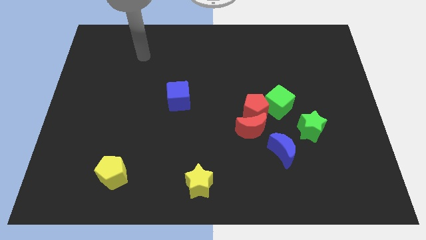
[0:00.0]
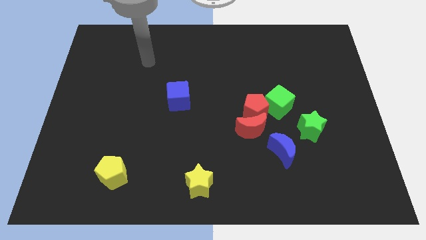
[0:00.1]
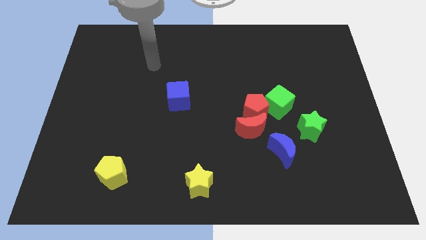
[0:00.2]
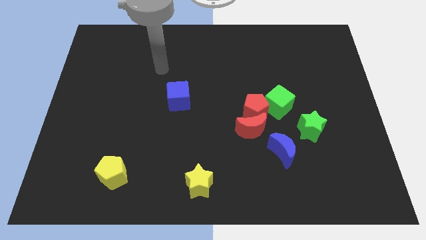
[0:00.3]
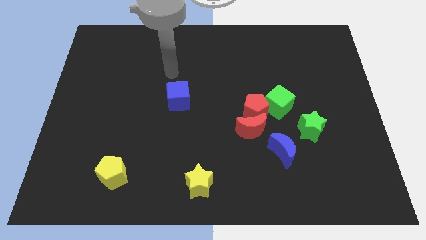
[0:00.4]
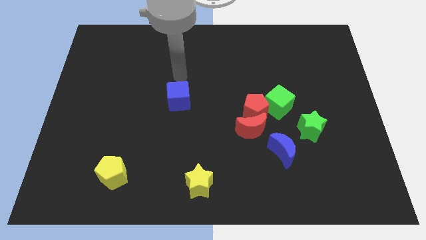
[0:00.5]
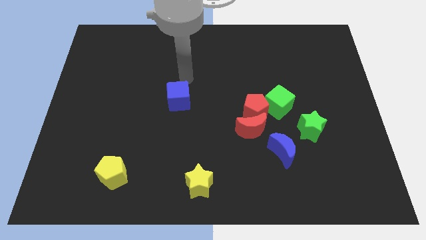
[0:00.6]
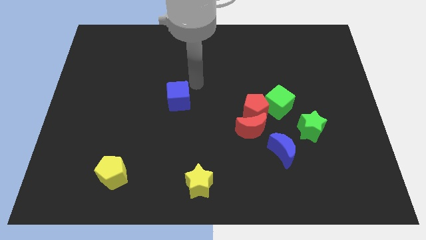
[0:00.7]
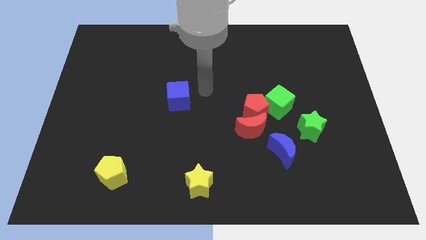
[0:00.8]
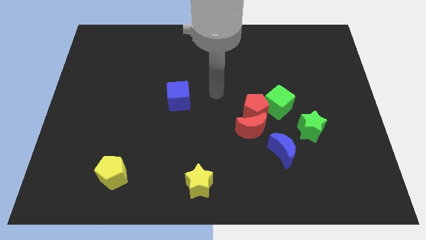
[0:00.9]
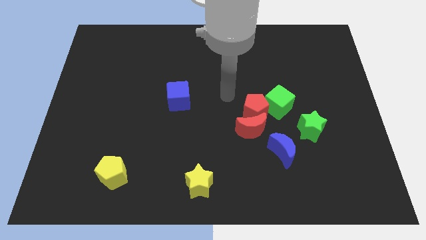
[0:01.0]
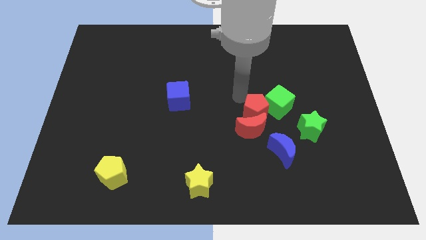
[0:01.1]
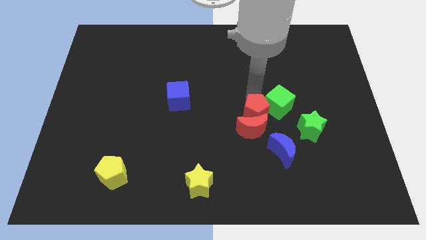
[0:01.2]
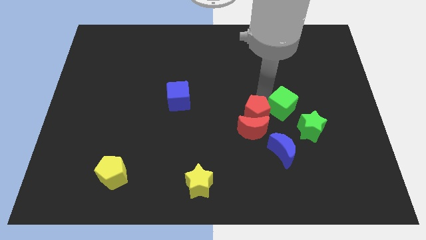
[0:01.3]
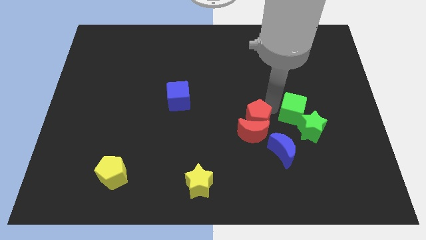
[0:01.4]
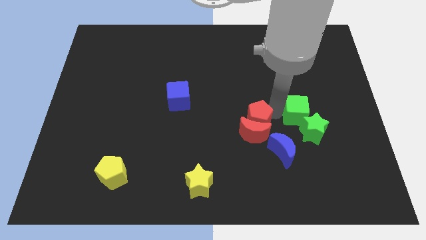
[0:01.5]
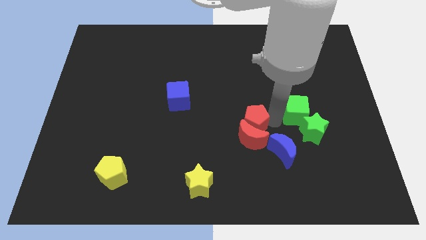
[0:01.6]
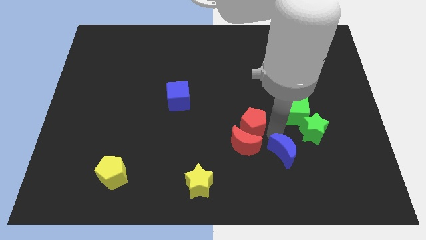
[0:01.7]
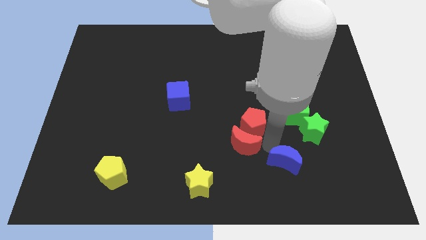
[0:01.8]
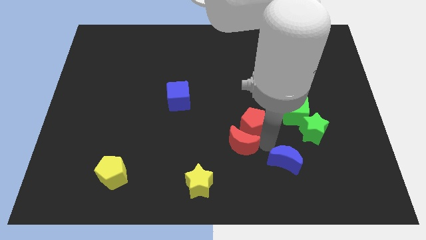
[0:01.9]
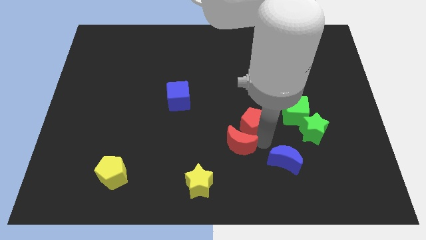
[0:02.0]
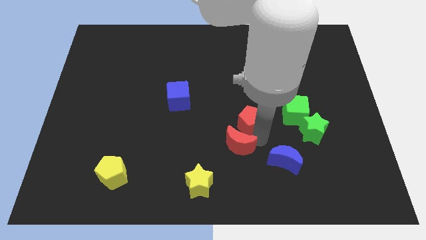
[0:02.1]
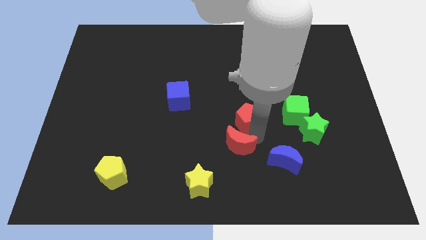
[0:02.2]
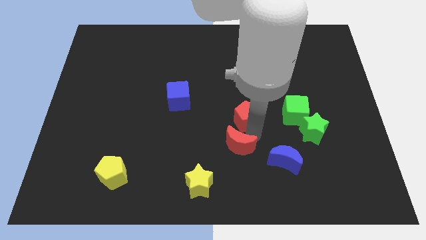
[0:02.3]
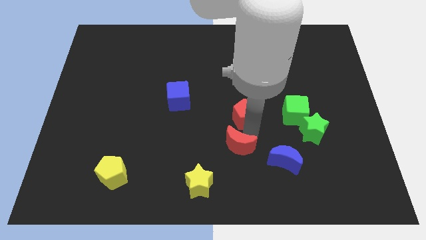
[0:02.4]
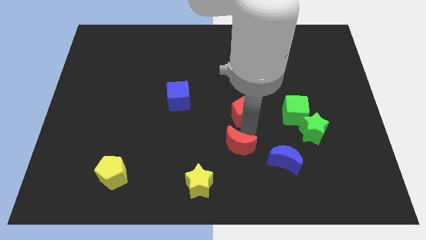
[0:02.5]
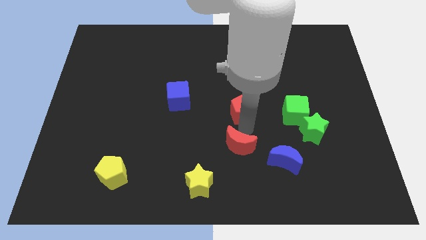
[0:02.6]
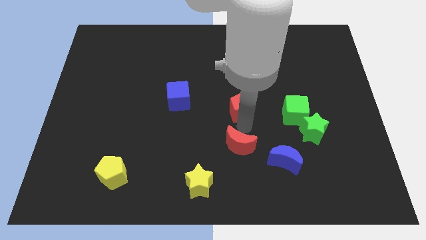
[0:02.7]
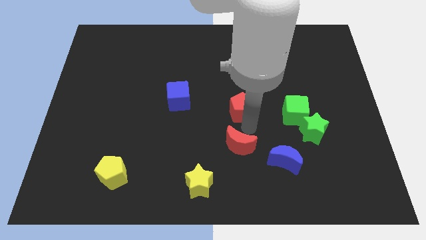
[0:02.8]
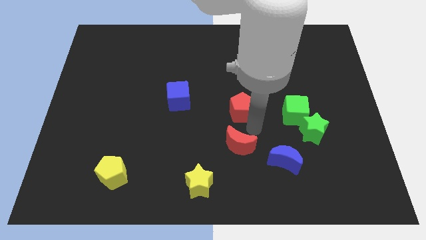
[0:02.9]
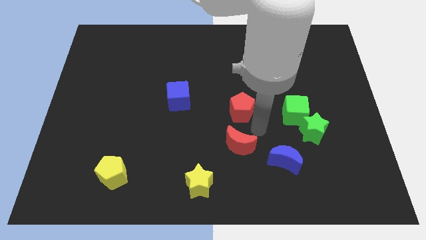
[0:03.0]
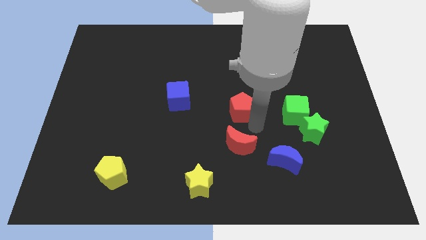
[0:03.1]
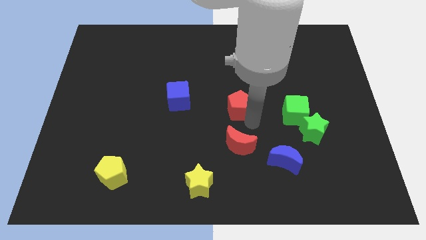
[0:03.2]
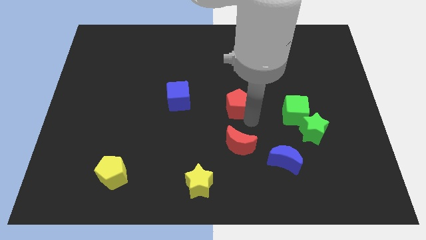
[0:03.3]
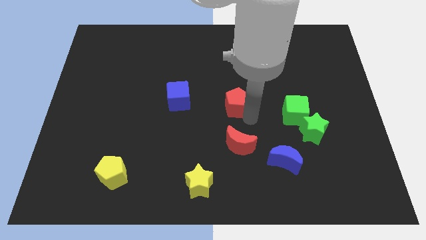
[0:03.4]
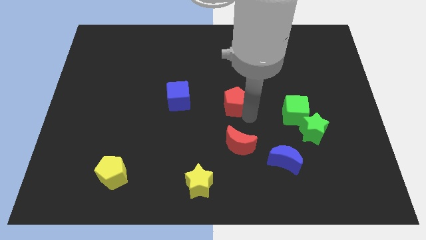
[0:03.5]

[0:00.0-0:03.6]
pull the red pentagon apart from the red moon and green cube

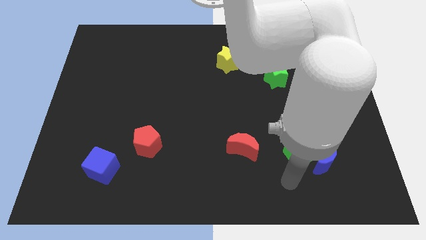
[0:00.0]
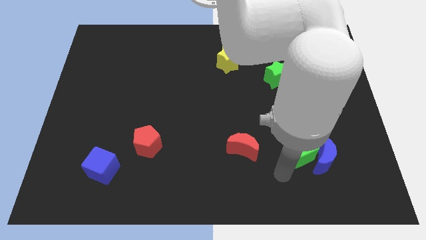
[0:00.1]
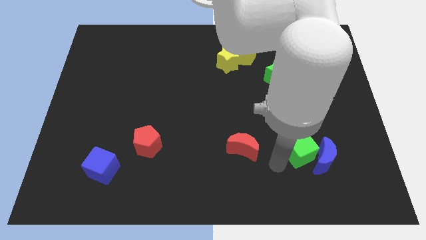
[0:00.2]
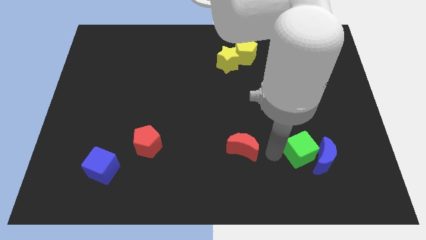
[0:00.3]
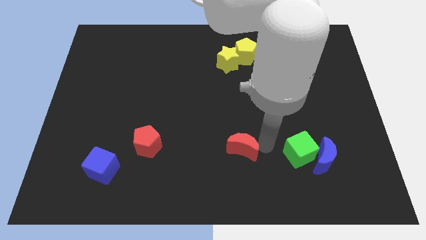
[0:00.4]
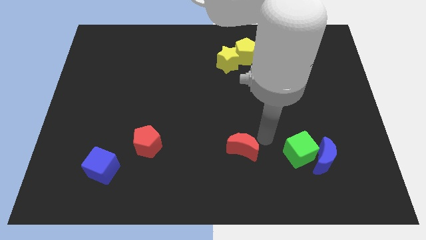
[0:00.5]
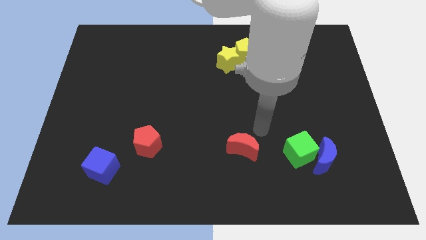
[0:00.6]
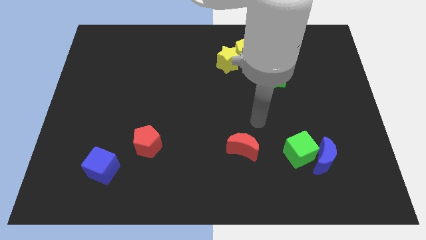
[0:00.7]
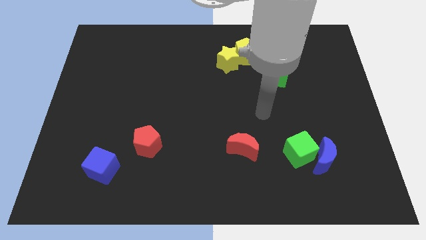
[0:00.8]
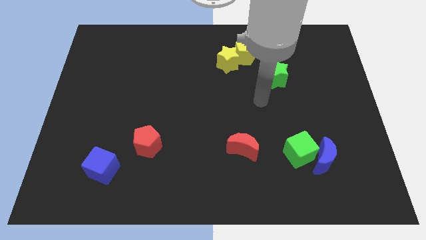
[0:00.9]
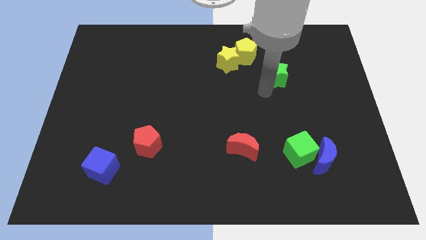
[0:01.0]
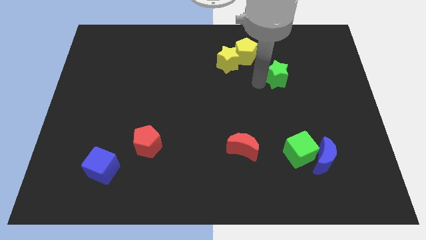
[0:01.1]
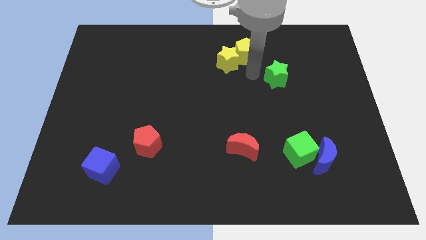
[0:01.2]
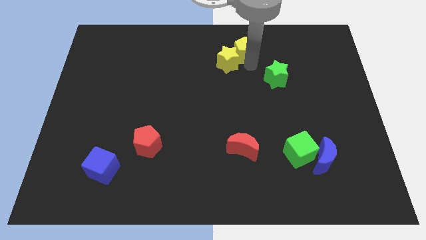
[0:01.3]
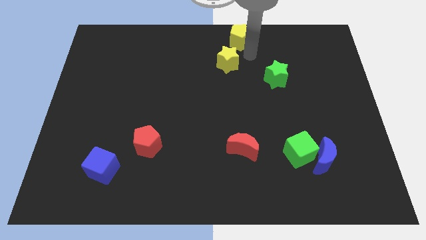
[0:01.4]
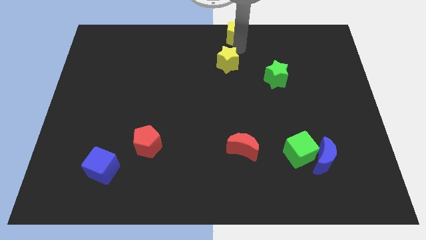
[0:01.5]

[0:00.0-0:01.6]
separate the yellow star from the yellow pentagon

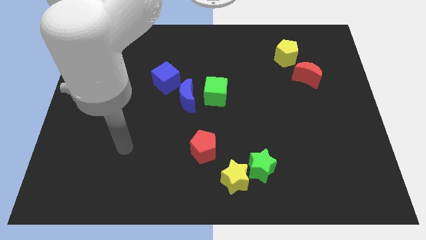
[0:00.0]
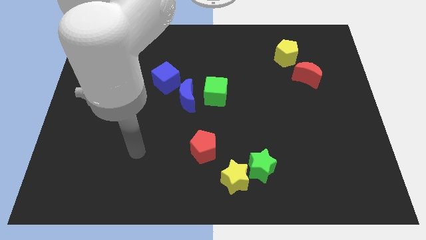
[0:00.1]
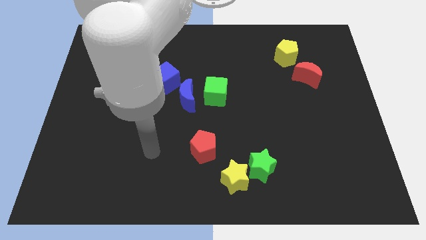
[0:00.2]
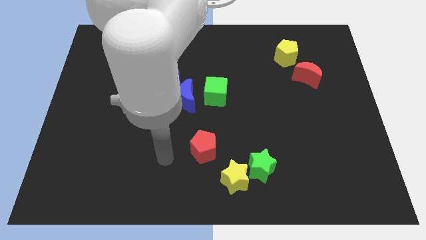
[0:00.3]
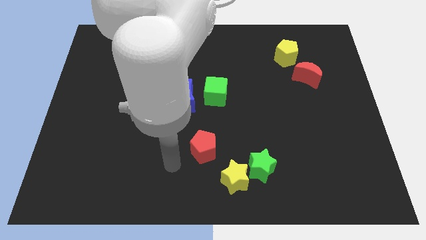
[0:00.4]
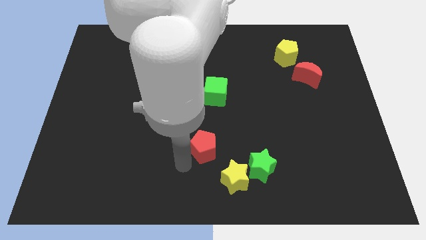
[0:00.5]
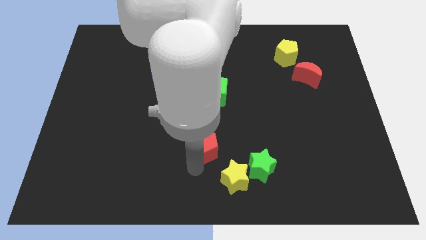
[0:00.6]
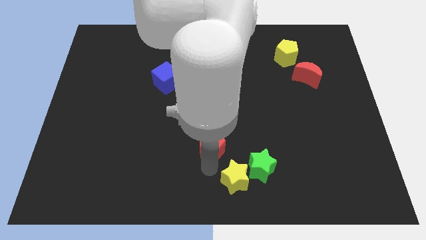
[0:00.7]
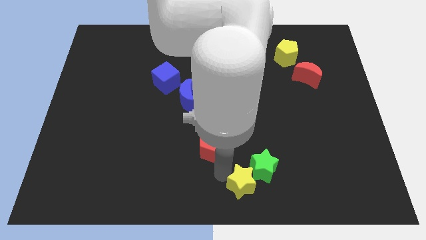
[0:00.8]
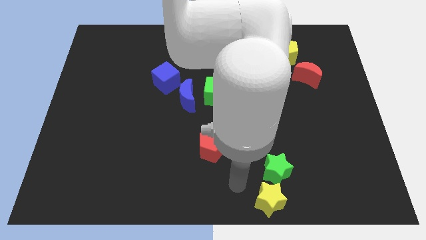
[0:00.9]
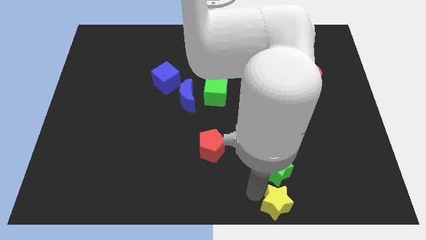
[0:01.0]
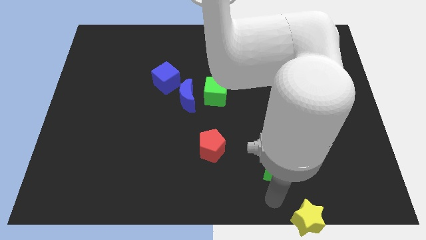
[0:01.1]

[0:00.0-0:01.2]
pull the green star apart from the yellow star

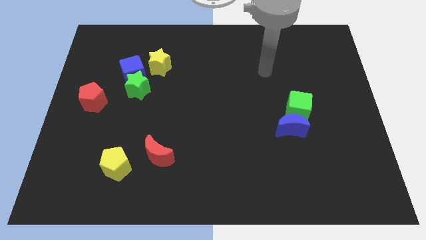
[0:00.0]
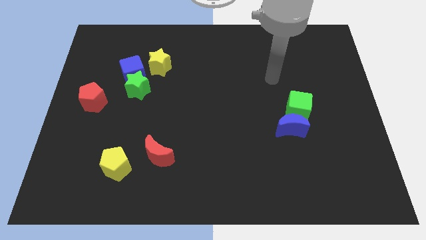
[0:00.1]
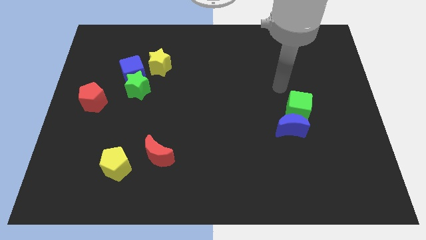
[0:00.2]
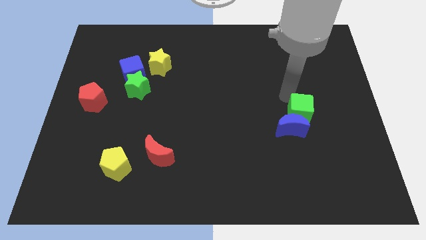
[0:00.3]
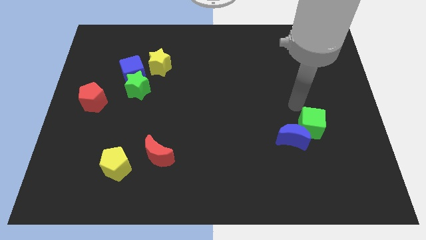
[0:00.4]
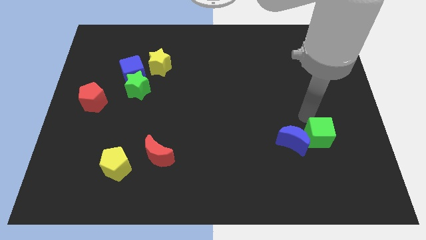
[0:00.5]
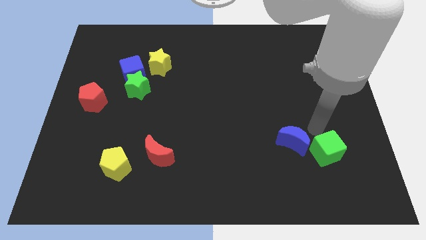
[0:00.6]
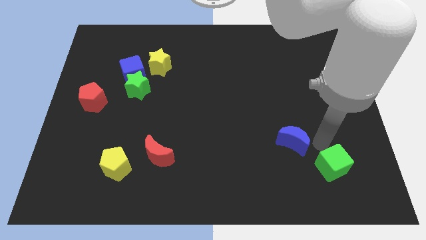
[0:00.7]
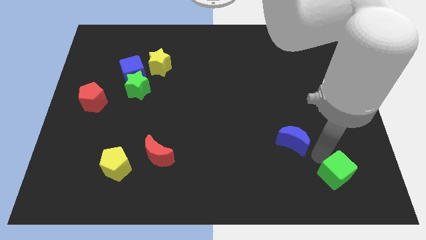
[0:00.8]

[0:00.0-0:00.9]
move the blue moon away from the green cube

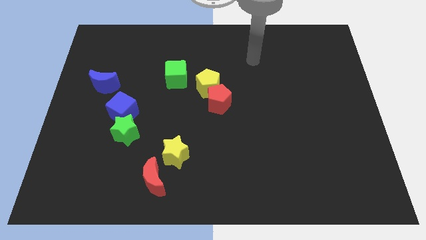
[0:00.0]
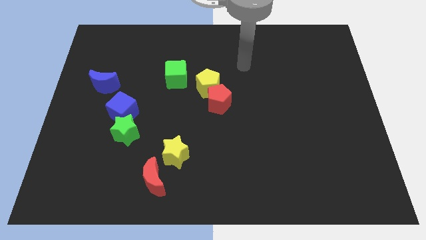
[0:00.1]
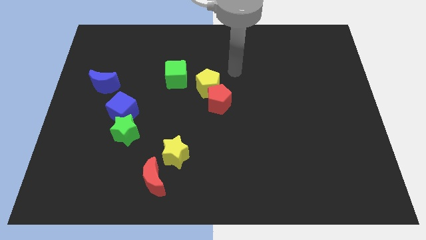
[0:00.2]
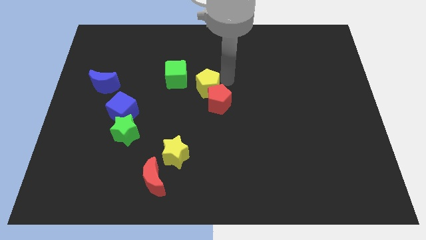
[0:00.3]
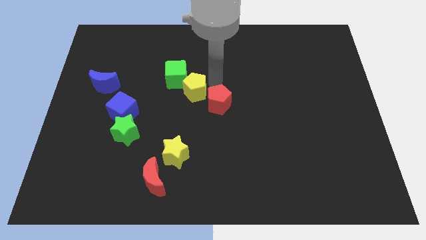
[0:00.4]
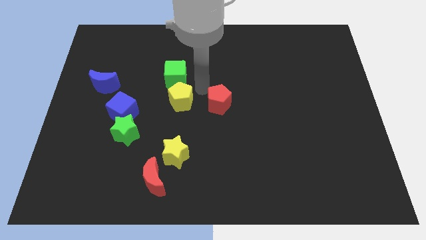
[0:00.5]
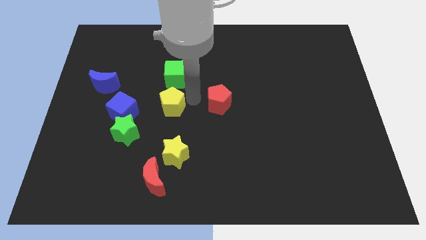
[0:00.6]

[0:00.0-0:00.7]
move the red pentagon away from the yellow pentagon

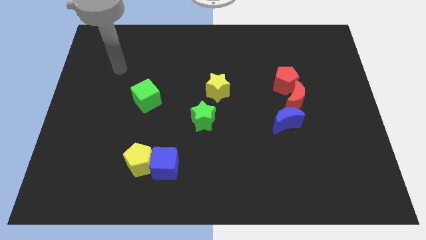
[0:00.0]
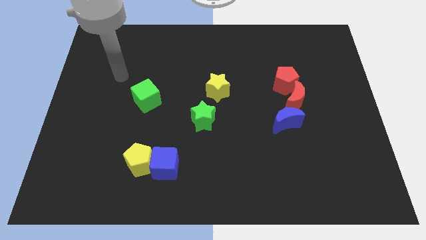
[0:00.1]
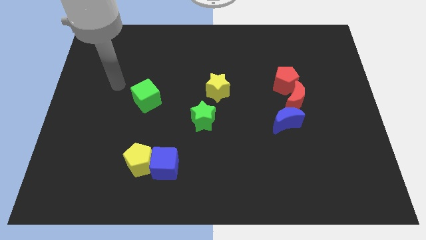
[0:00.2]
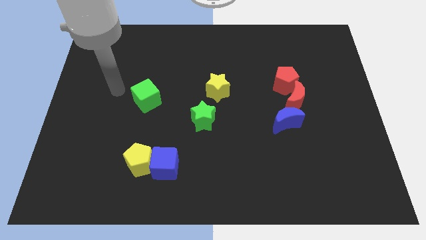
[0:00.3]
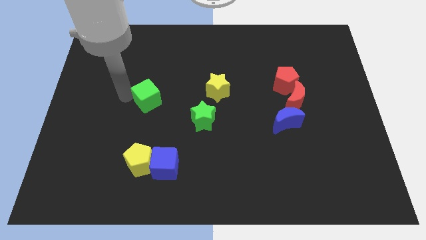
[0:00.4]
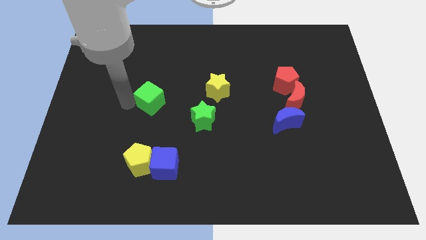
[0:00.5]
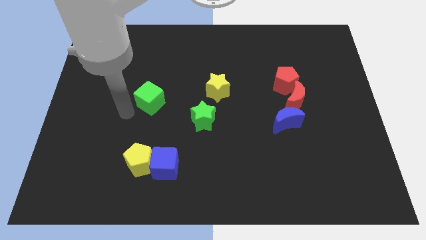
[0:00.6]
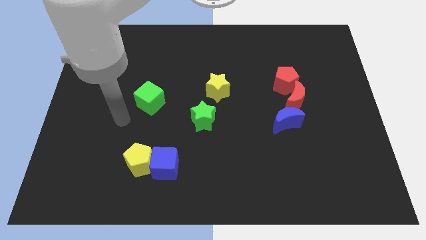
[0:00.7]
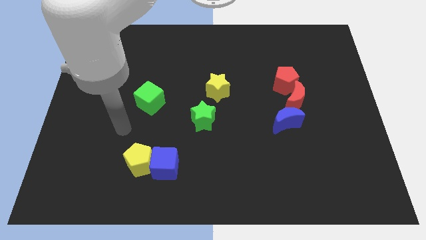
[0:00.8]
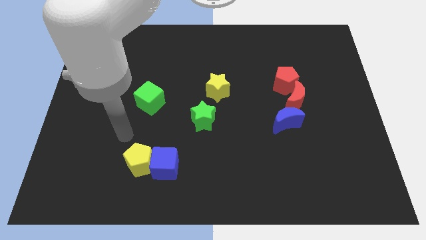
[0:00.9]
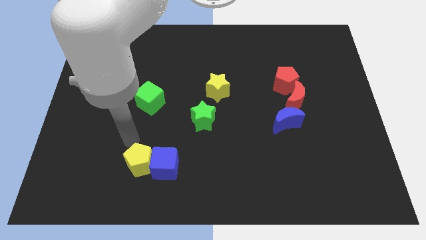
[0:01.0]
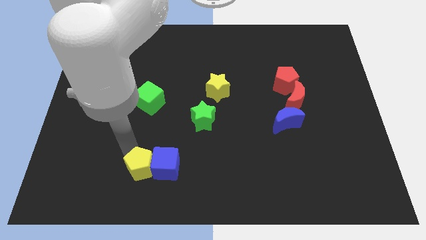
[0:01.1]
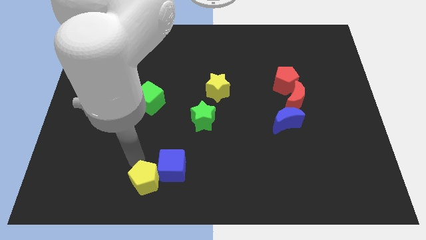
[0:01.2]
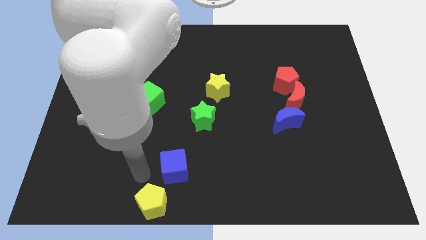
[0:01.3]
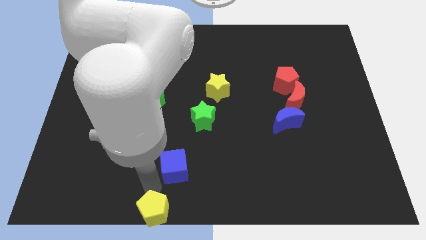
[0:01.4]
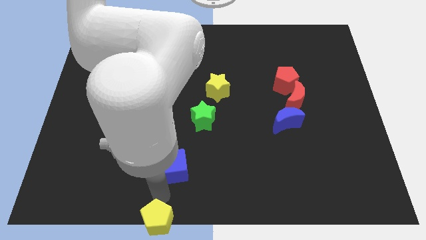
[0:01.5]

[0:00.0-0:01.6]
pull the blue cube apart from the yellow pentagon
